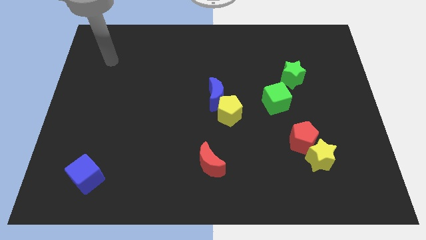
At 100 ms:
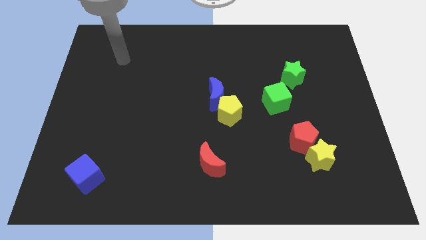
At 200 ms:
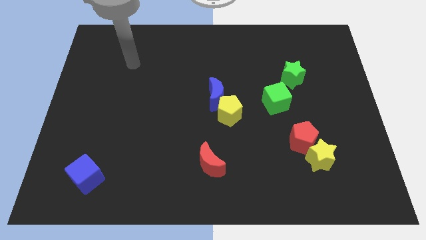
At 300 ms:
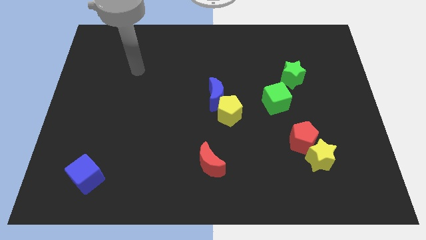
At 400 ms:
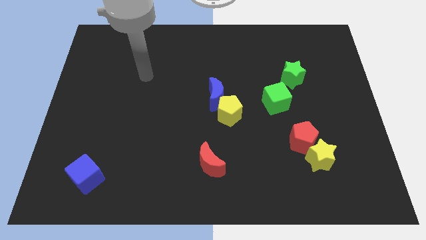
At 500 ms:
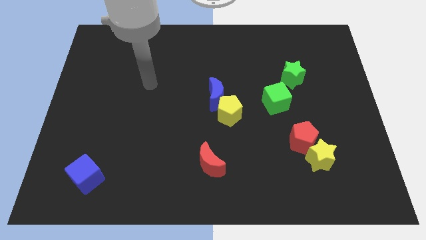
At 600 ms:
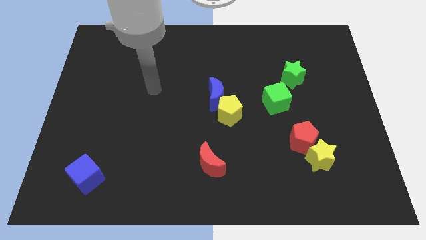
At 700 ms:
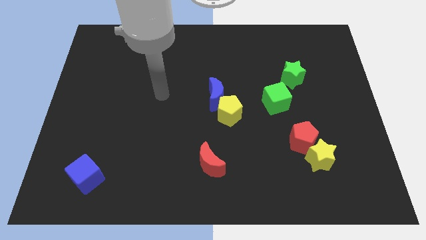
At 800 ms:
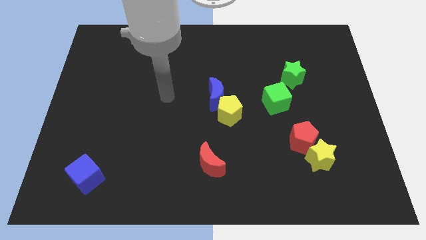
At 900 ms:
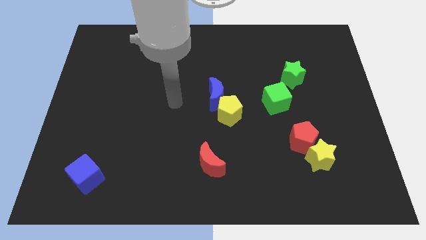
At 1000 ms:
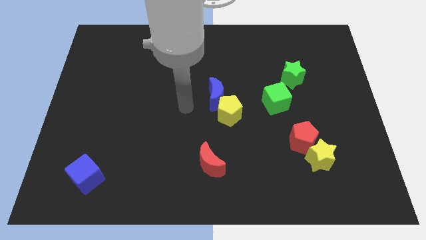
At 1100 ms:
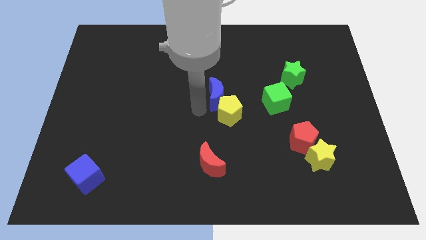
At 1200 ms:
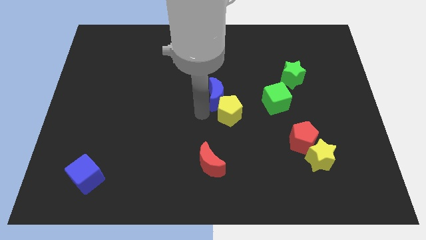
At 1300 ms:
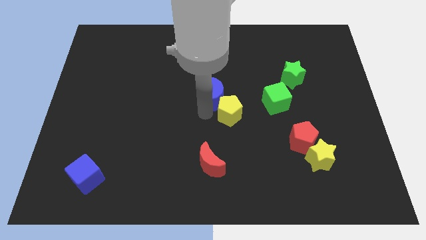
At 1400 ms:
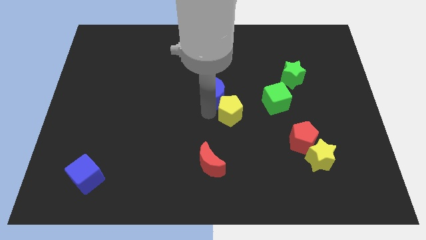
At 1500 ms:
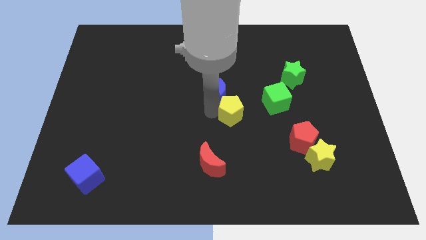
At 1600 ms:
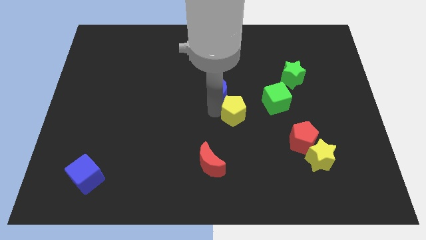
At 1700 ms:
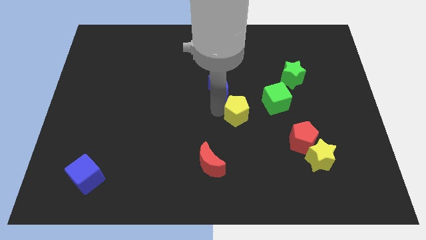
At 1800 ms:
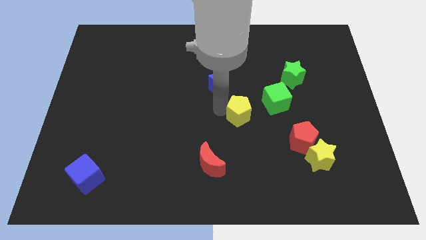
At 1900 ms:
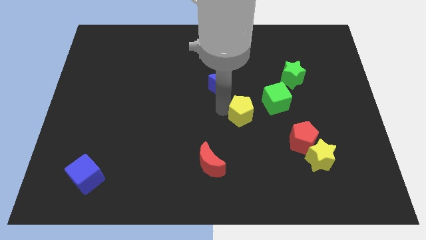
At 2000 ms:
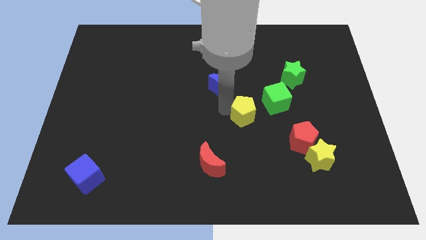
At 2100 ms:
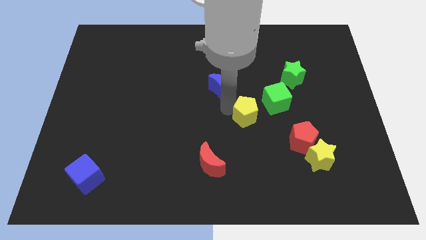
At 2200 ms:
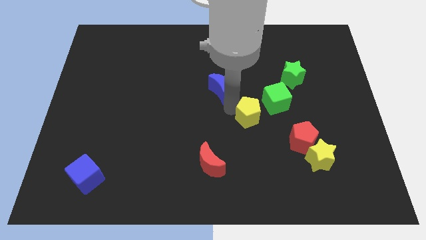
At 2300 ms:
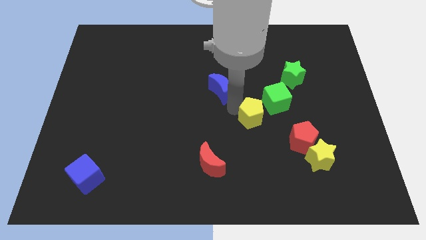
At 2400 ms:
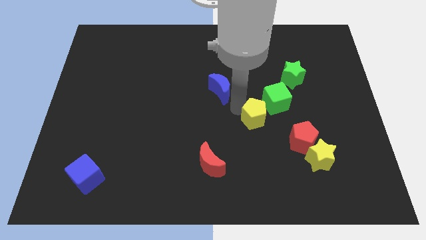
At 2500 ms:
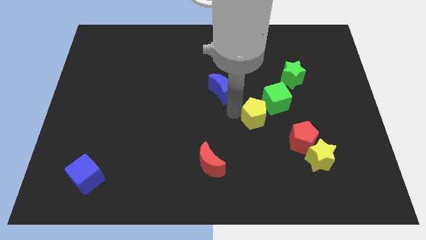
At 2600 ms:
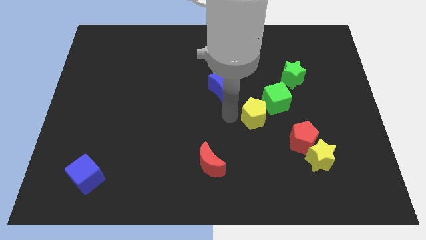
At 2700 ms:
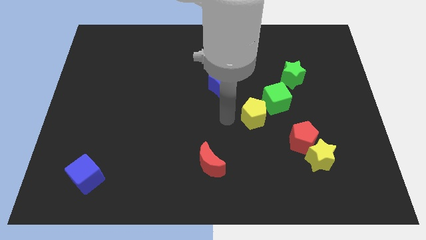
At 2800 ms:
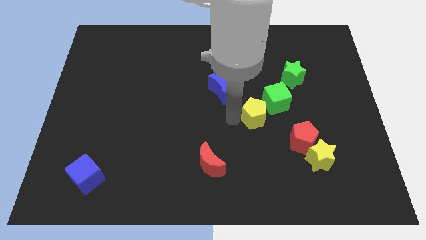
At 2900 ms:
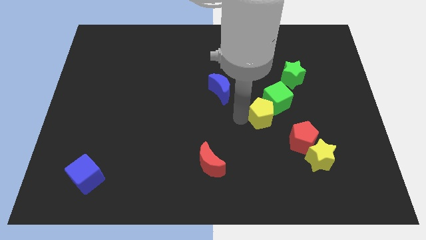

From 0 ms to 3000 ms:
slightly push the yellow pentagon right

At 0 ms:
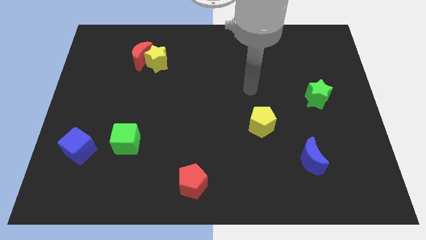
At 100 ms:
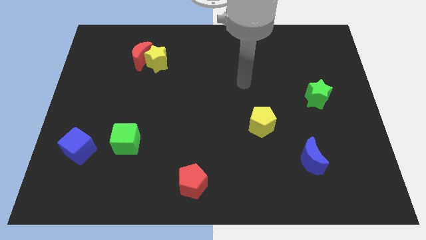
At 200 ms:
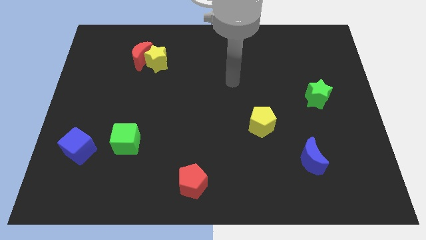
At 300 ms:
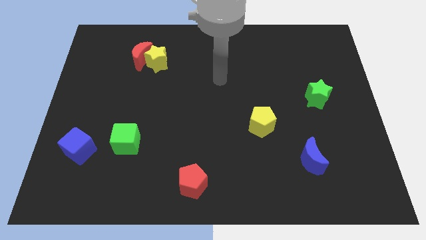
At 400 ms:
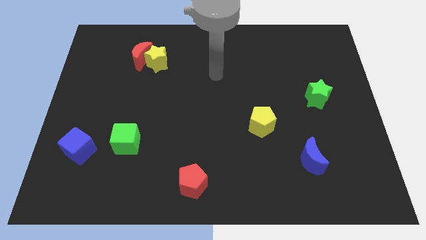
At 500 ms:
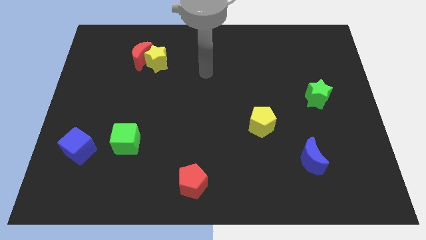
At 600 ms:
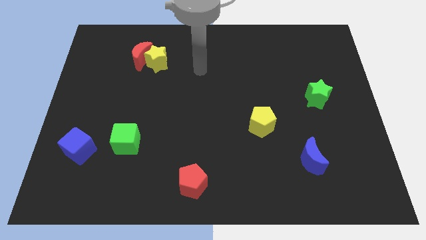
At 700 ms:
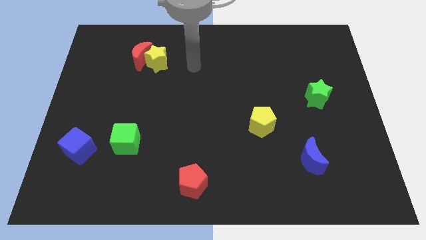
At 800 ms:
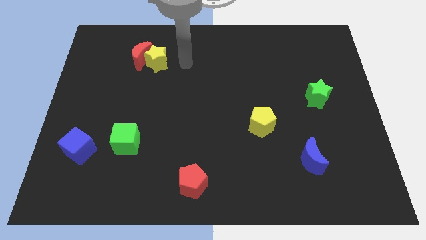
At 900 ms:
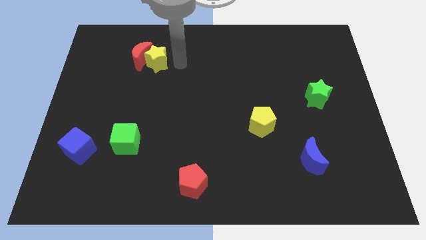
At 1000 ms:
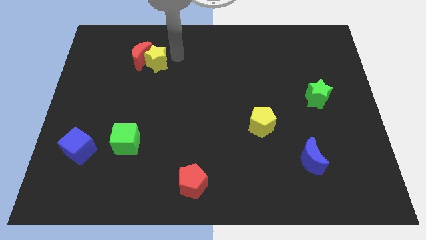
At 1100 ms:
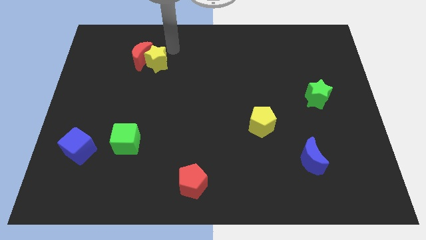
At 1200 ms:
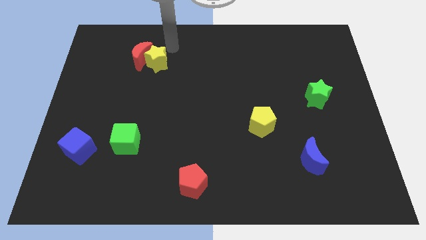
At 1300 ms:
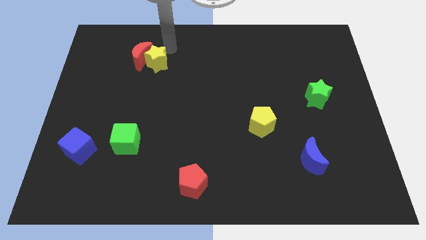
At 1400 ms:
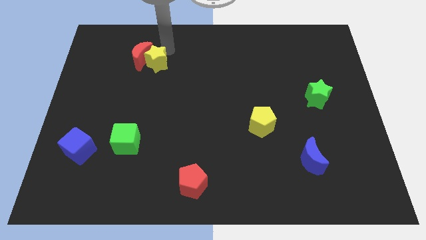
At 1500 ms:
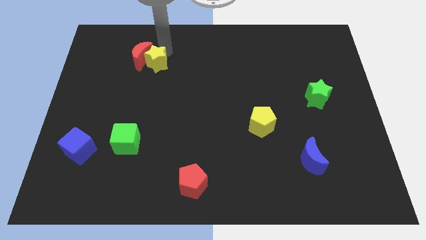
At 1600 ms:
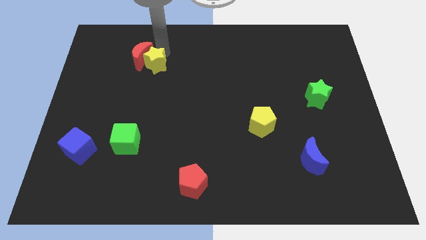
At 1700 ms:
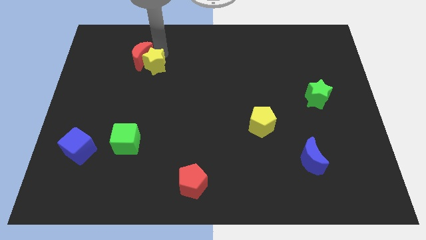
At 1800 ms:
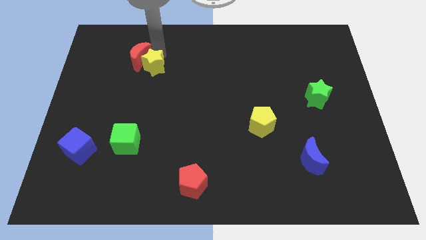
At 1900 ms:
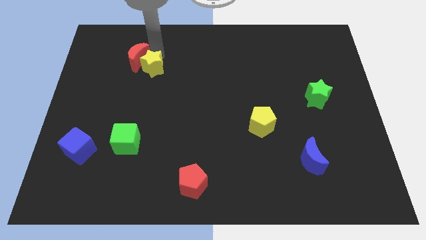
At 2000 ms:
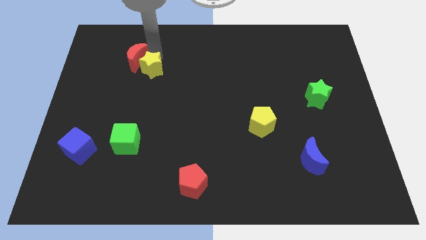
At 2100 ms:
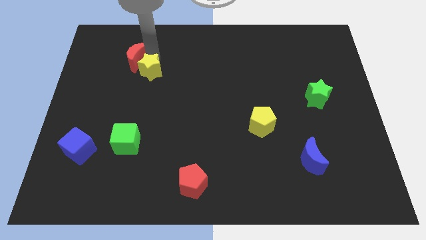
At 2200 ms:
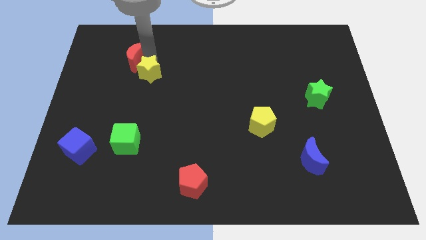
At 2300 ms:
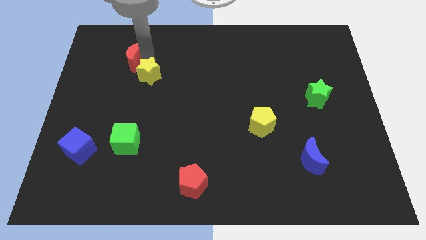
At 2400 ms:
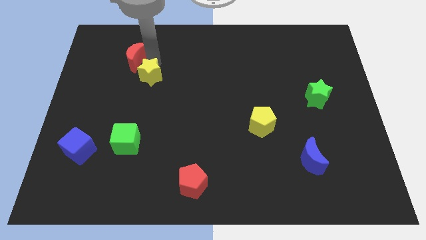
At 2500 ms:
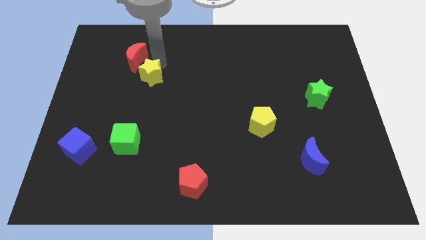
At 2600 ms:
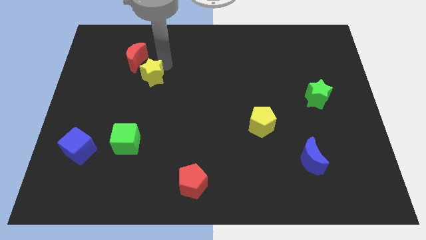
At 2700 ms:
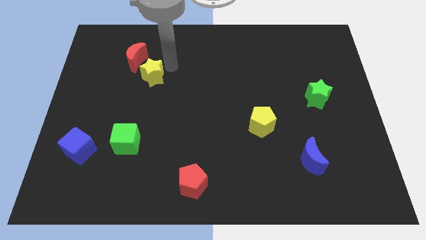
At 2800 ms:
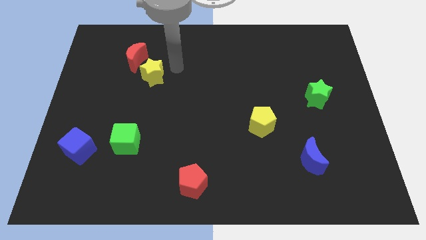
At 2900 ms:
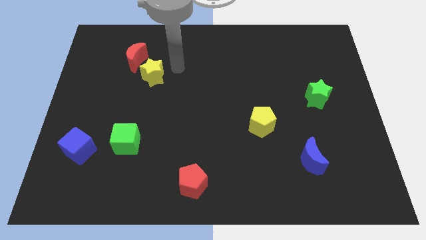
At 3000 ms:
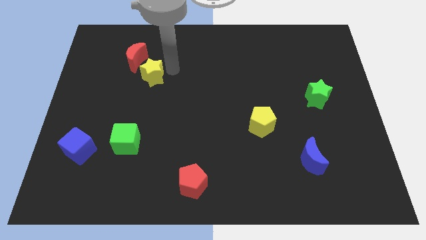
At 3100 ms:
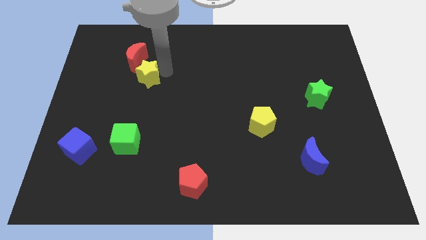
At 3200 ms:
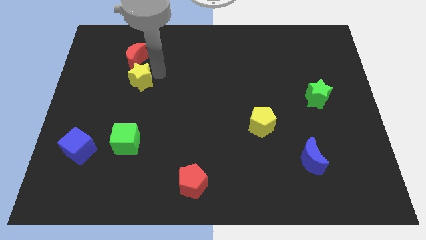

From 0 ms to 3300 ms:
push the yellow star diagonally down and to the left slightly

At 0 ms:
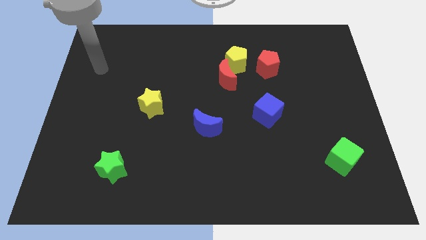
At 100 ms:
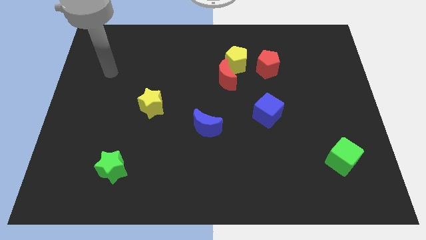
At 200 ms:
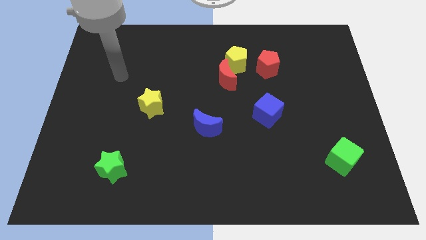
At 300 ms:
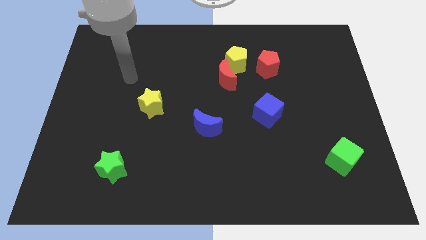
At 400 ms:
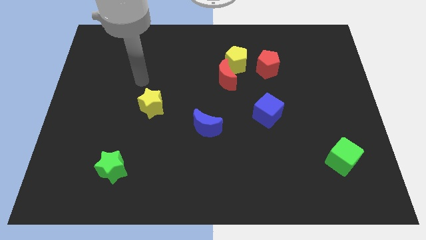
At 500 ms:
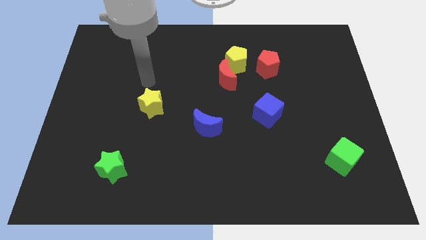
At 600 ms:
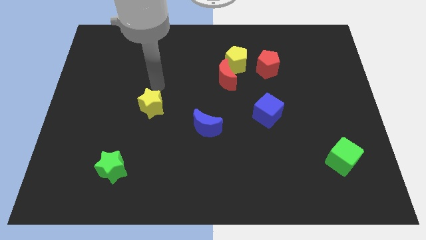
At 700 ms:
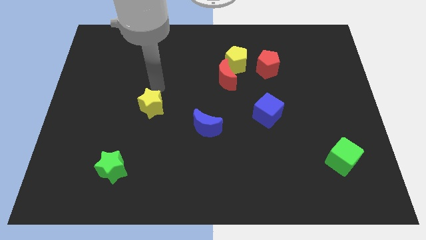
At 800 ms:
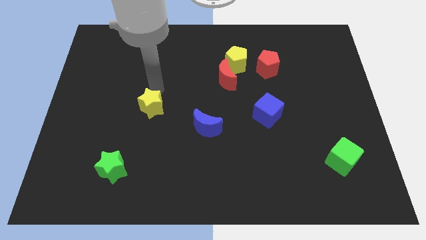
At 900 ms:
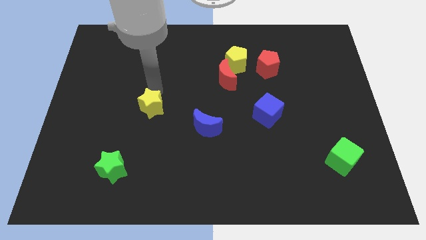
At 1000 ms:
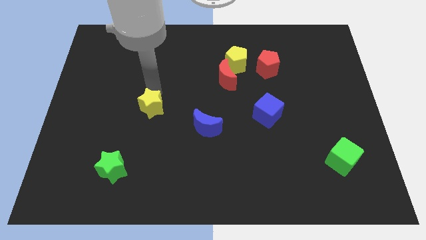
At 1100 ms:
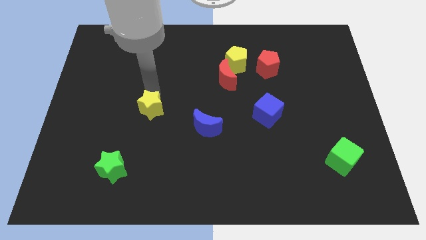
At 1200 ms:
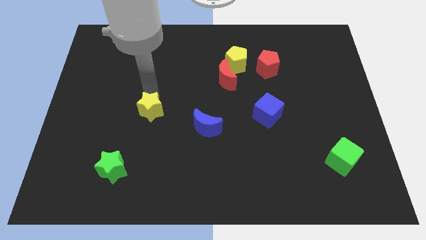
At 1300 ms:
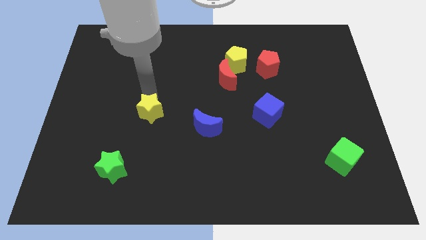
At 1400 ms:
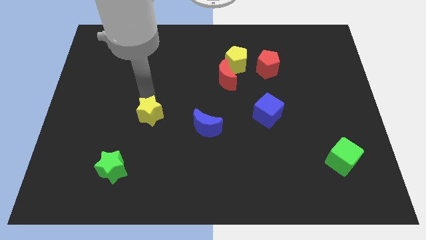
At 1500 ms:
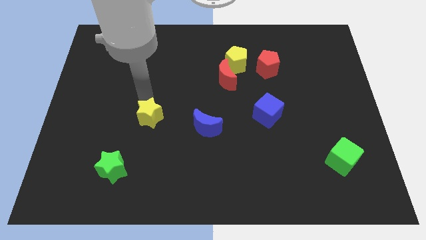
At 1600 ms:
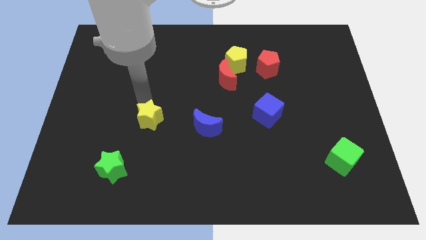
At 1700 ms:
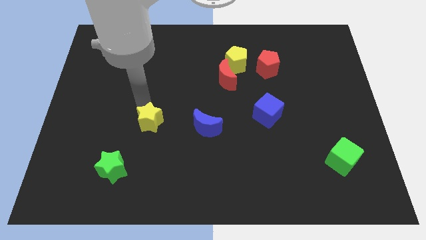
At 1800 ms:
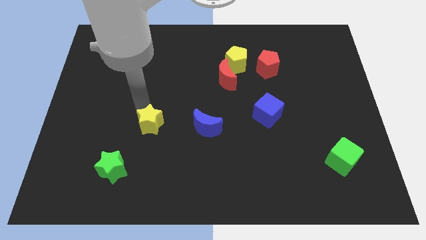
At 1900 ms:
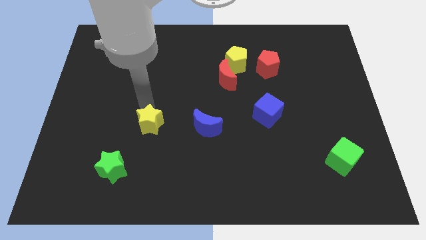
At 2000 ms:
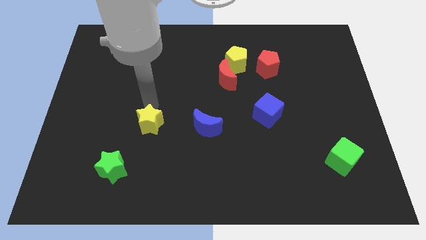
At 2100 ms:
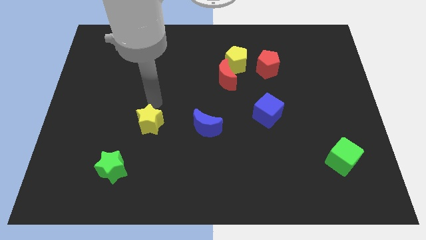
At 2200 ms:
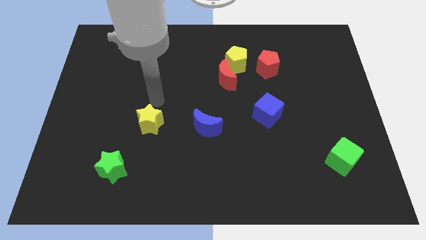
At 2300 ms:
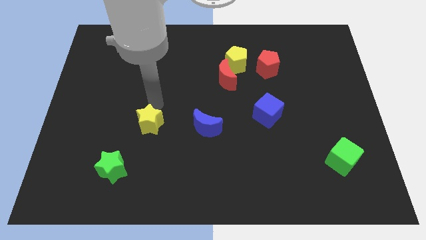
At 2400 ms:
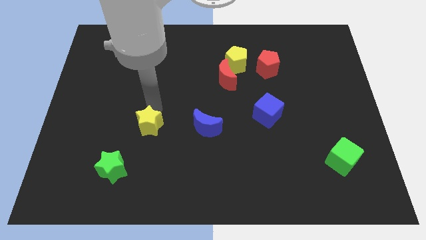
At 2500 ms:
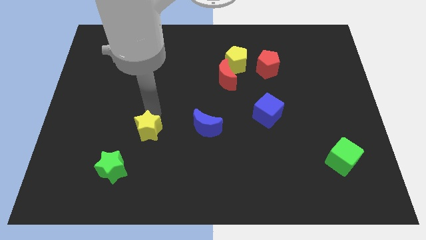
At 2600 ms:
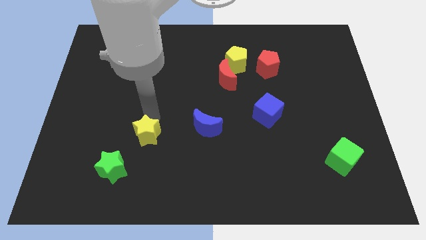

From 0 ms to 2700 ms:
push the yellow star downwards a little
